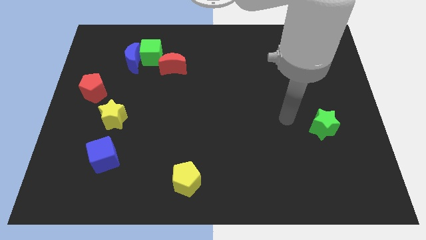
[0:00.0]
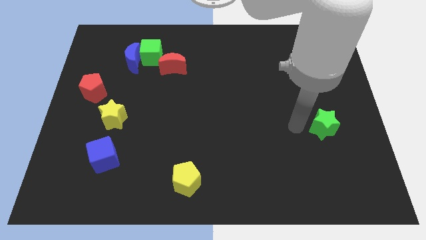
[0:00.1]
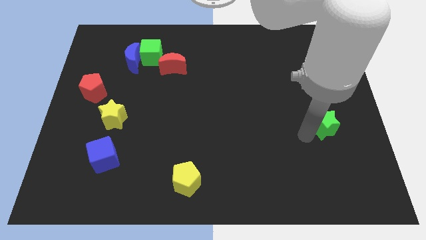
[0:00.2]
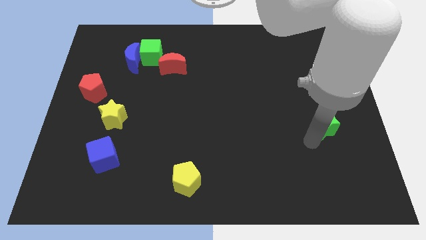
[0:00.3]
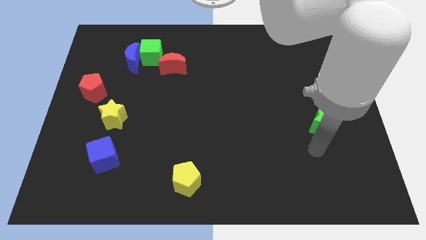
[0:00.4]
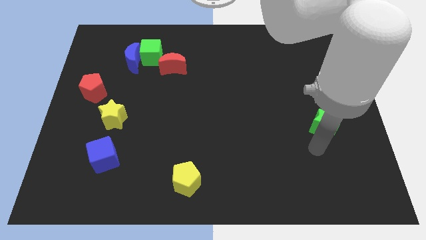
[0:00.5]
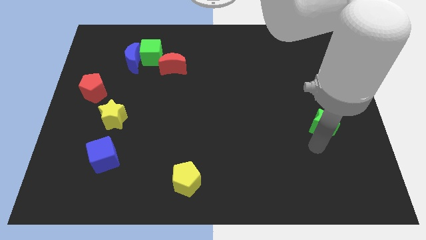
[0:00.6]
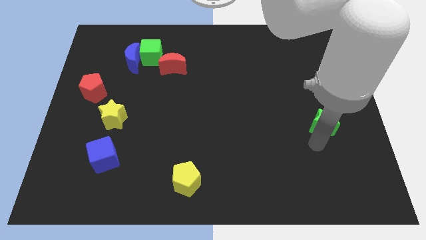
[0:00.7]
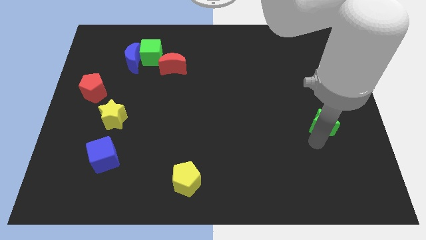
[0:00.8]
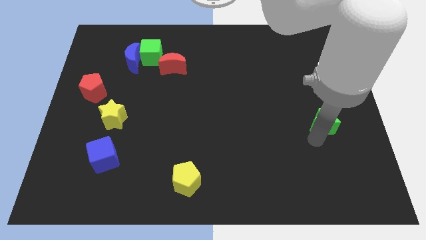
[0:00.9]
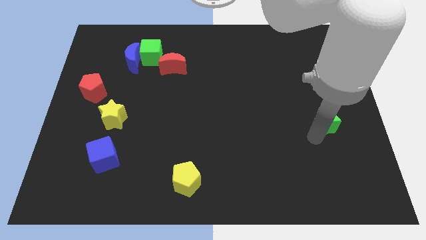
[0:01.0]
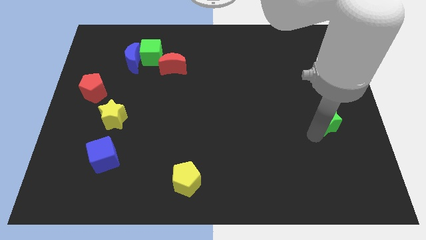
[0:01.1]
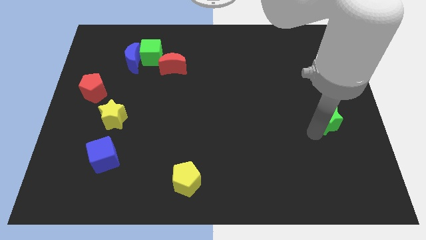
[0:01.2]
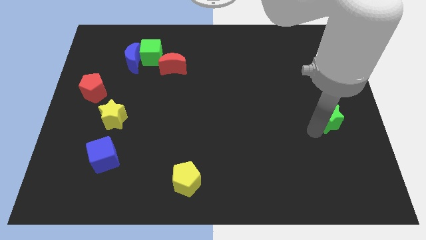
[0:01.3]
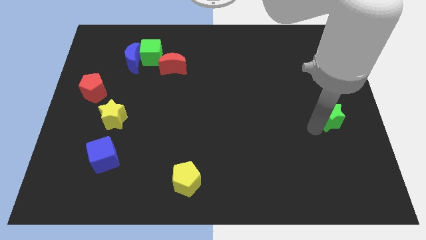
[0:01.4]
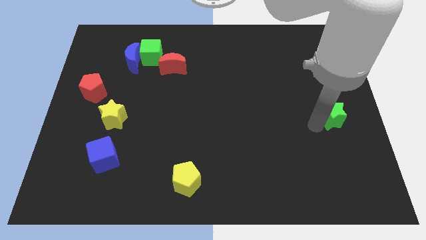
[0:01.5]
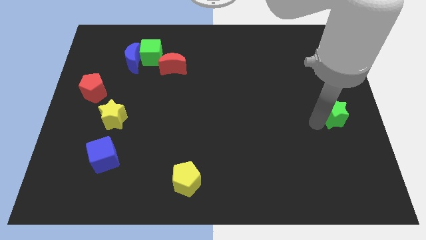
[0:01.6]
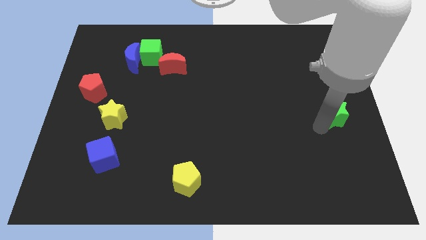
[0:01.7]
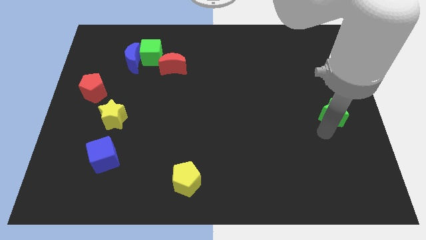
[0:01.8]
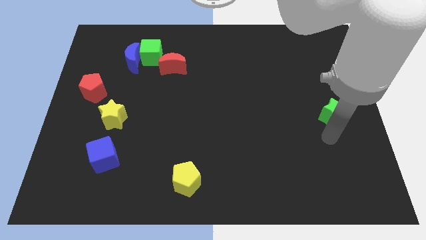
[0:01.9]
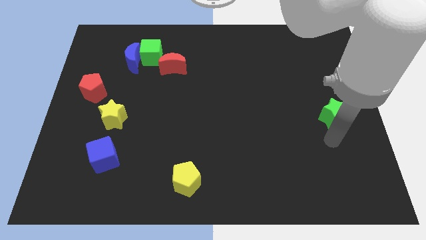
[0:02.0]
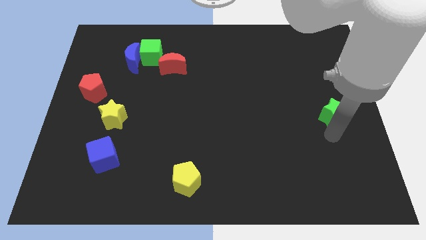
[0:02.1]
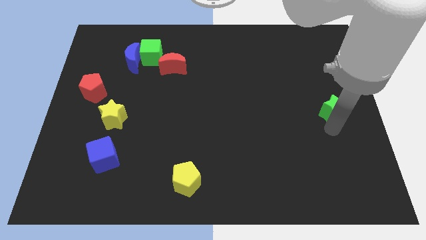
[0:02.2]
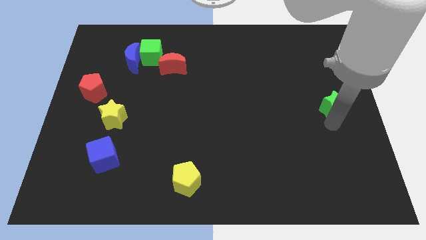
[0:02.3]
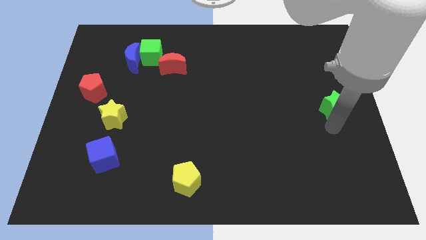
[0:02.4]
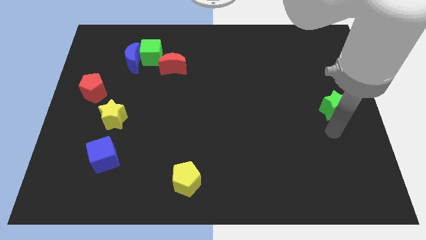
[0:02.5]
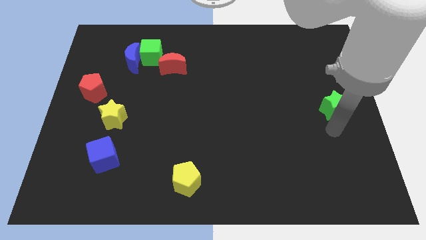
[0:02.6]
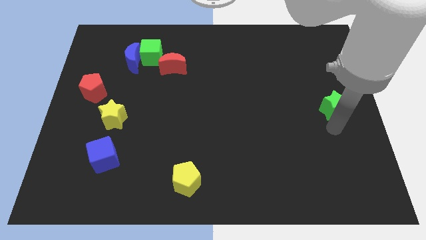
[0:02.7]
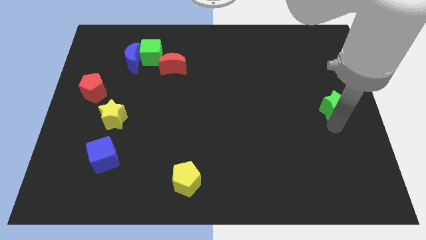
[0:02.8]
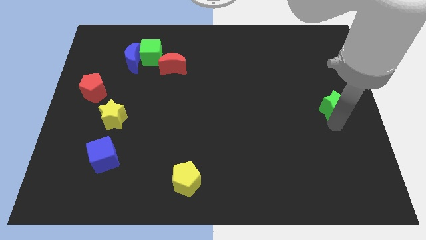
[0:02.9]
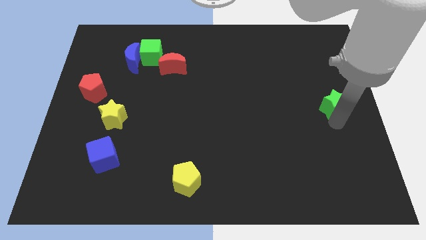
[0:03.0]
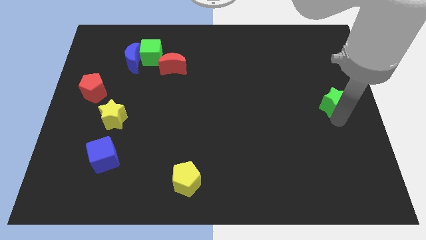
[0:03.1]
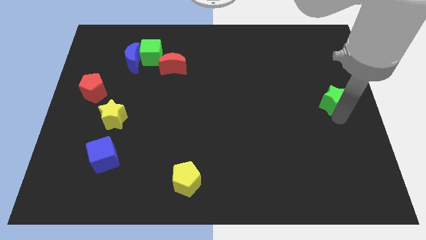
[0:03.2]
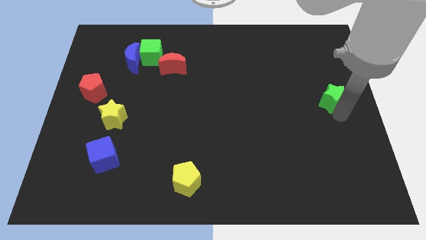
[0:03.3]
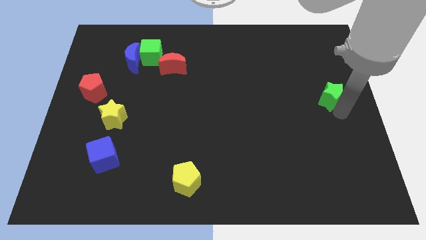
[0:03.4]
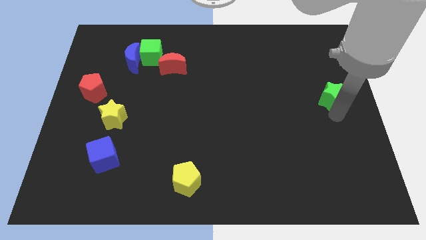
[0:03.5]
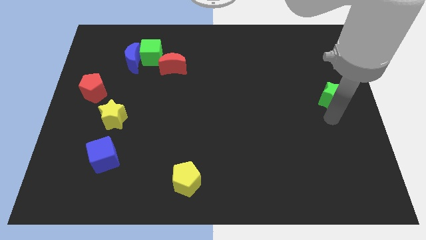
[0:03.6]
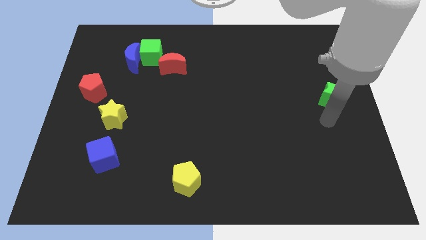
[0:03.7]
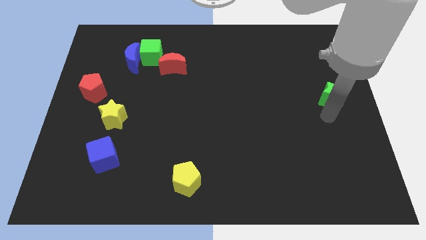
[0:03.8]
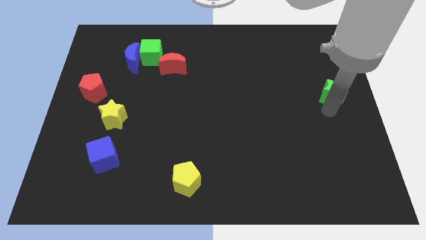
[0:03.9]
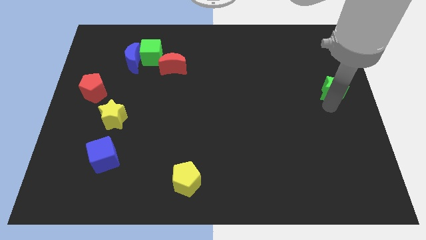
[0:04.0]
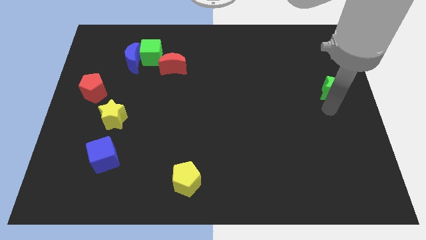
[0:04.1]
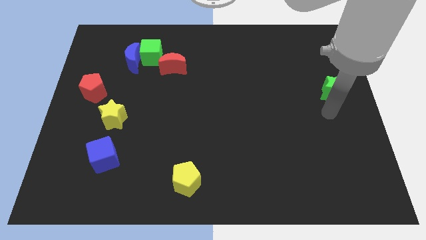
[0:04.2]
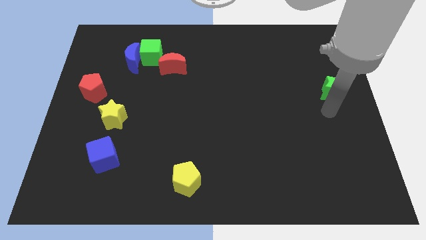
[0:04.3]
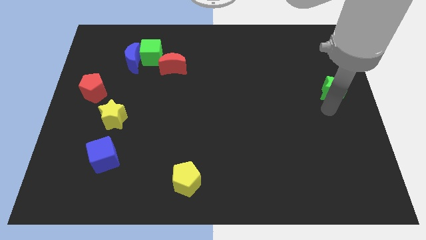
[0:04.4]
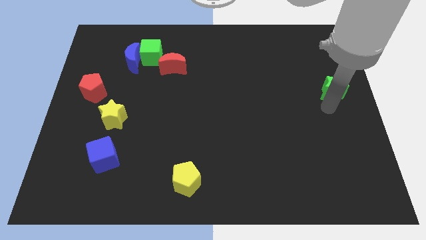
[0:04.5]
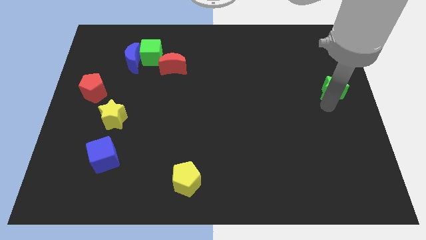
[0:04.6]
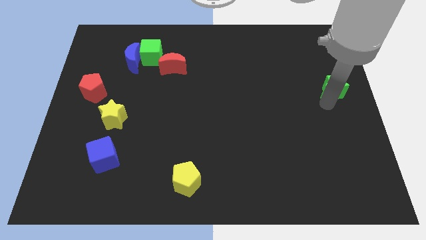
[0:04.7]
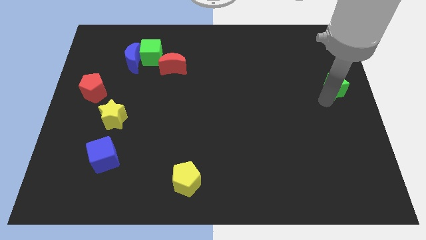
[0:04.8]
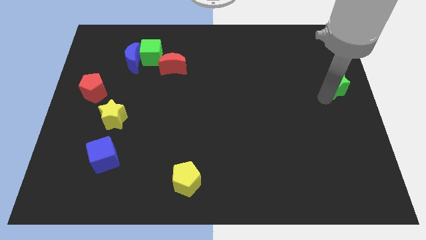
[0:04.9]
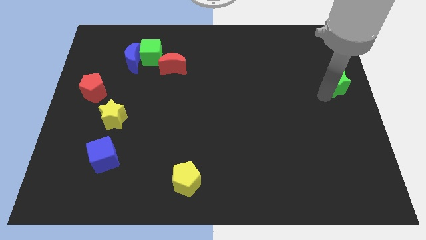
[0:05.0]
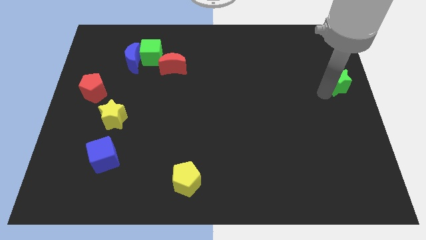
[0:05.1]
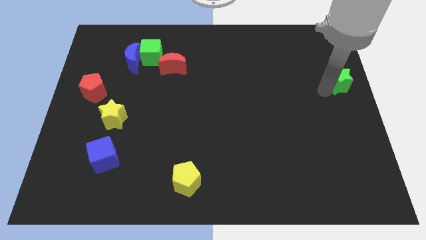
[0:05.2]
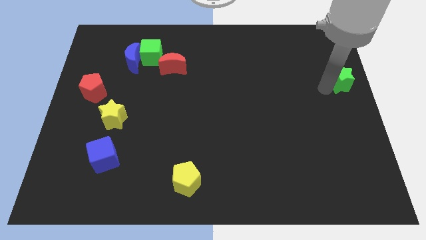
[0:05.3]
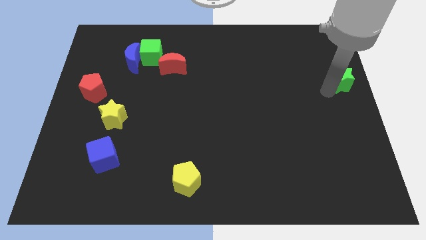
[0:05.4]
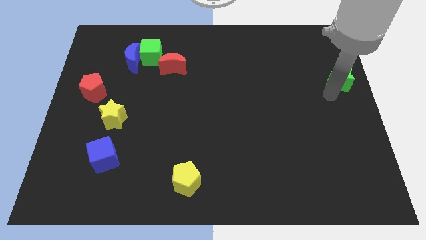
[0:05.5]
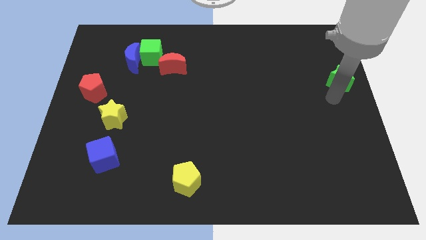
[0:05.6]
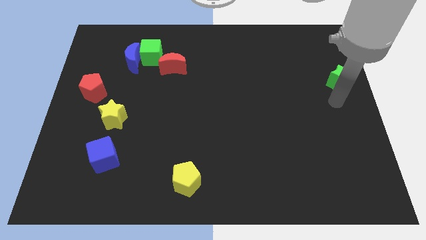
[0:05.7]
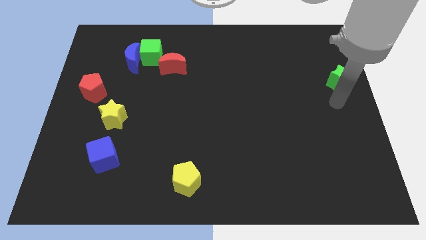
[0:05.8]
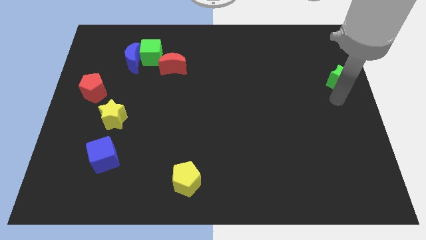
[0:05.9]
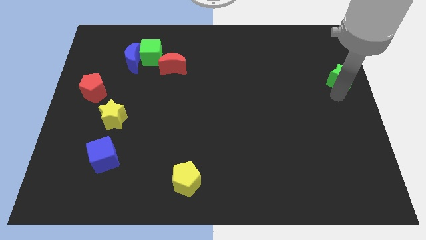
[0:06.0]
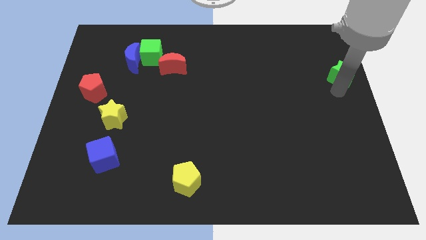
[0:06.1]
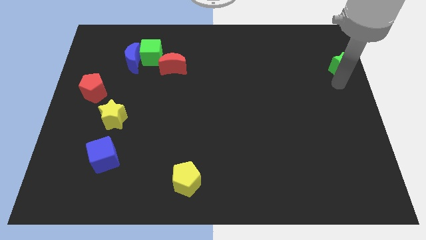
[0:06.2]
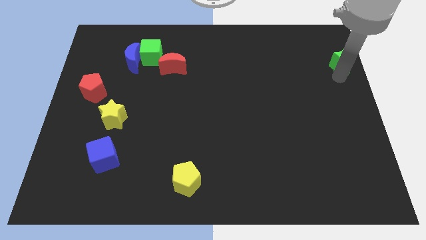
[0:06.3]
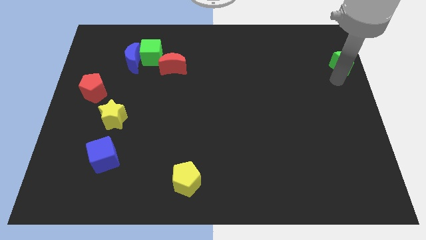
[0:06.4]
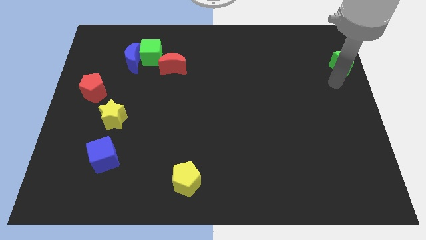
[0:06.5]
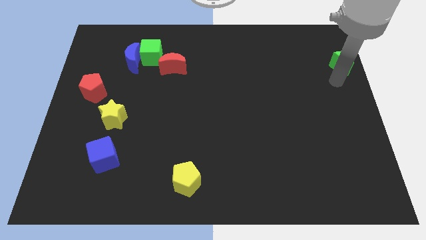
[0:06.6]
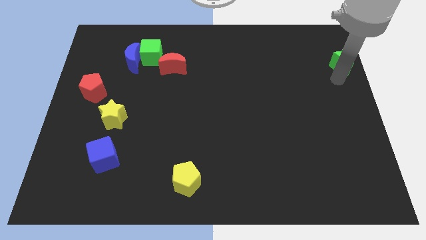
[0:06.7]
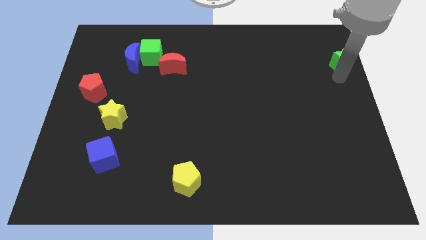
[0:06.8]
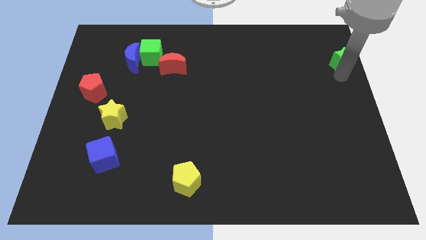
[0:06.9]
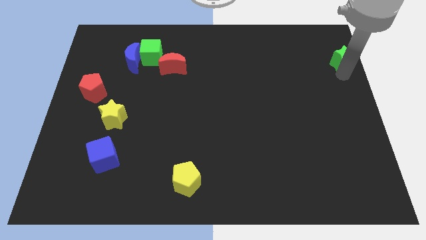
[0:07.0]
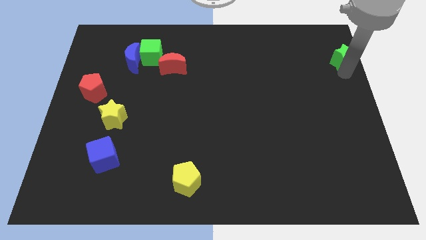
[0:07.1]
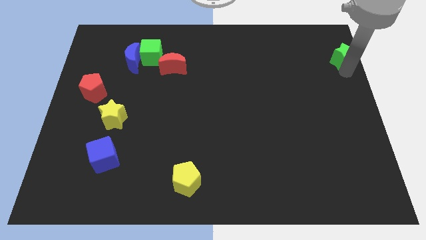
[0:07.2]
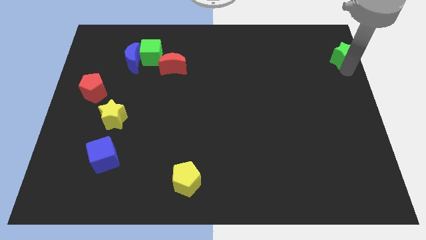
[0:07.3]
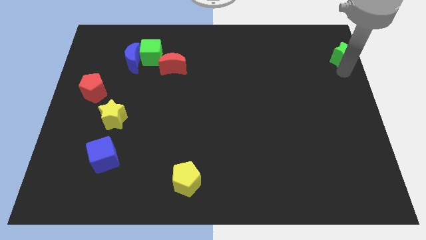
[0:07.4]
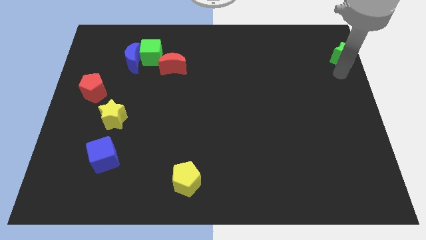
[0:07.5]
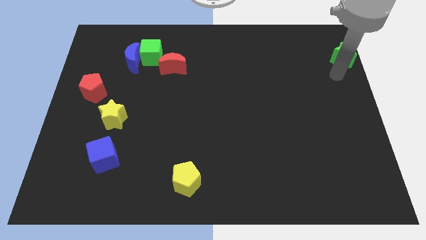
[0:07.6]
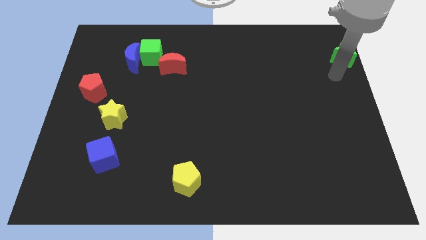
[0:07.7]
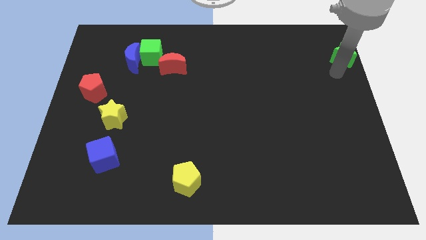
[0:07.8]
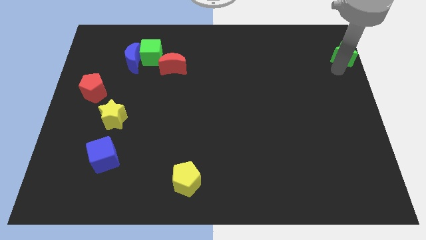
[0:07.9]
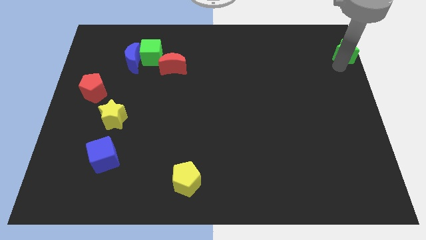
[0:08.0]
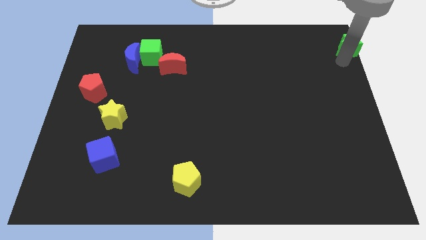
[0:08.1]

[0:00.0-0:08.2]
put the green star to the top right of the board
